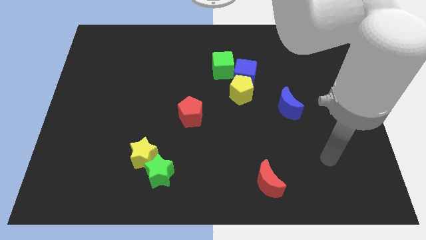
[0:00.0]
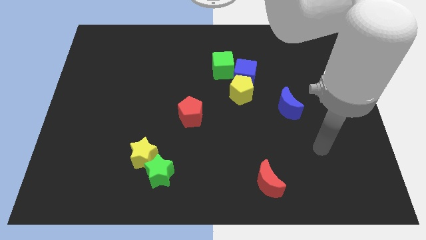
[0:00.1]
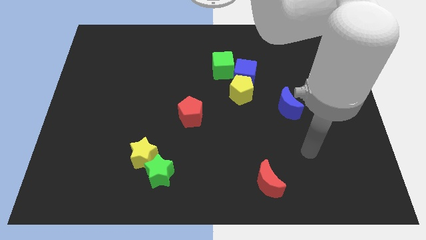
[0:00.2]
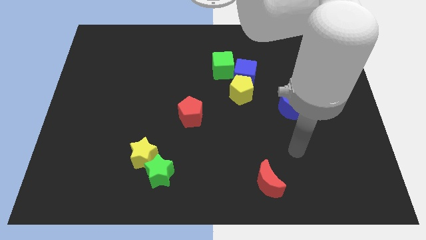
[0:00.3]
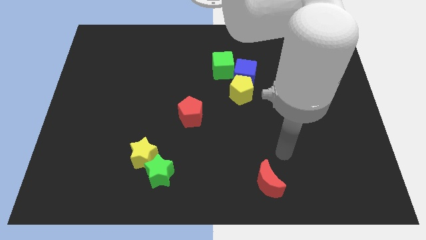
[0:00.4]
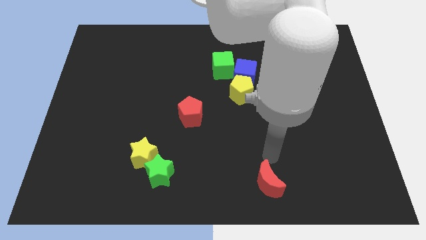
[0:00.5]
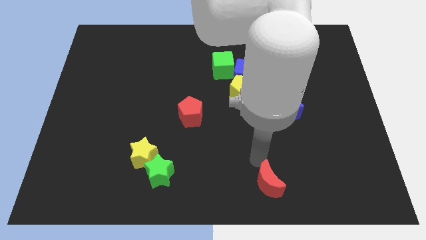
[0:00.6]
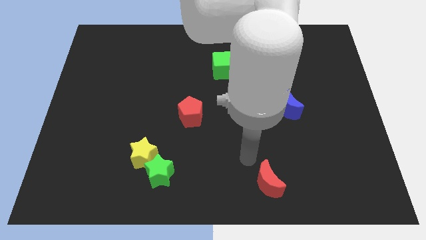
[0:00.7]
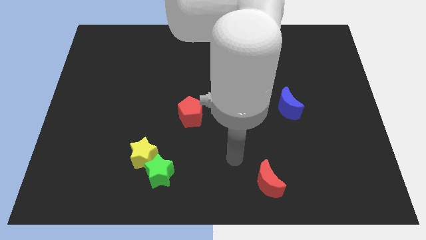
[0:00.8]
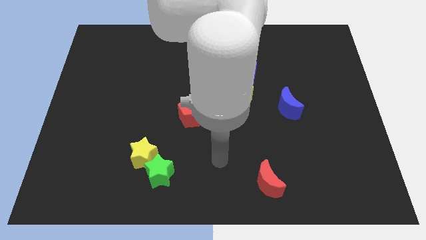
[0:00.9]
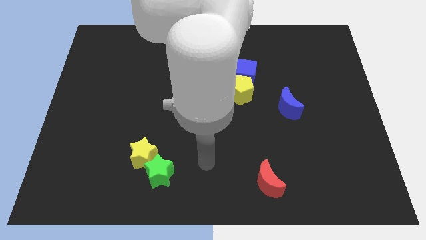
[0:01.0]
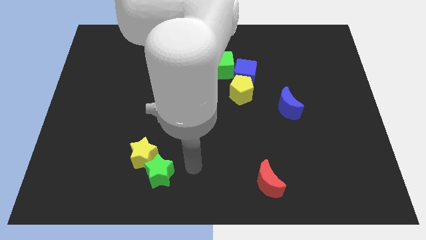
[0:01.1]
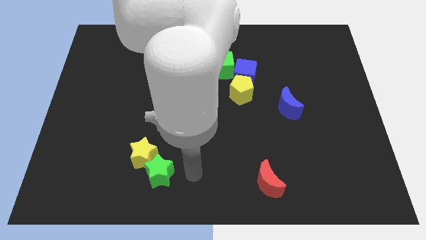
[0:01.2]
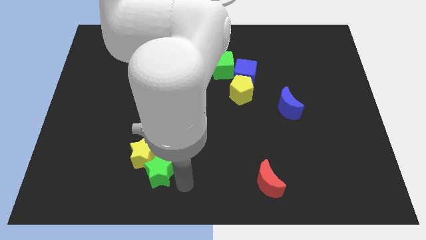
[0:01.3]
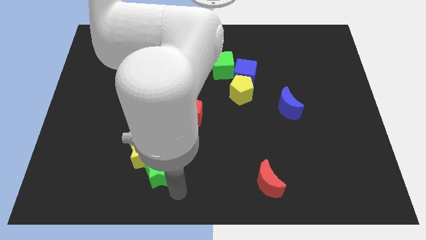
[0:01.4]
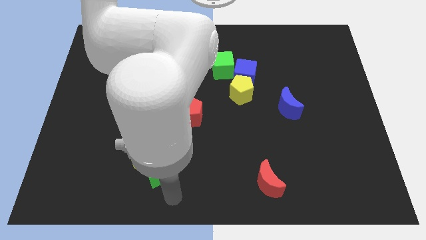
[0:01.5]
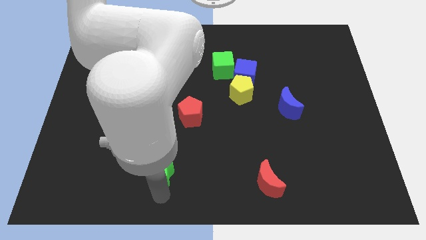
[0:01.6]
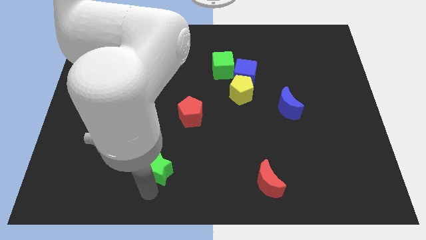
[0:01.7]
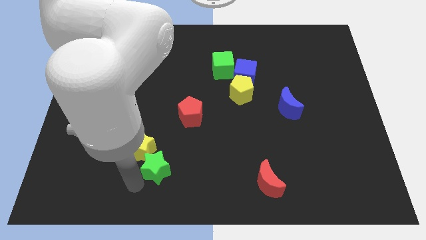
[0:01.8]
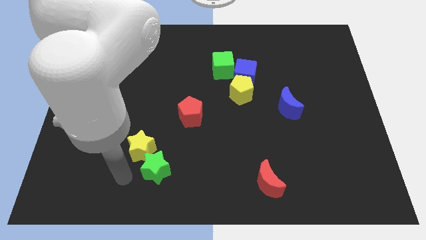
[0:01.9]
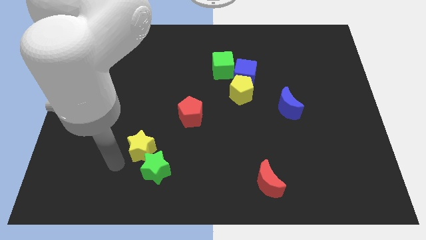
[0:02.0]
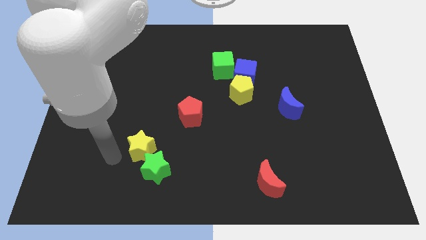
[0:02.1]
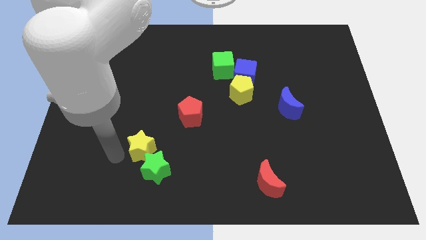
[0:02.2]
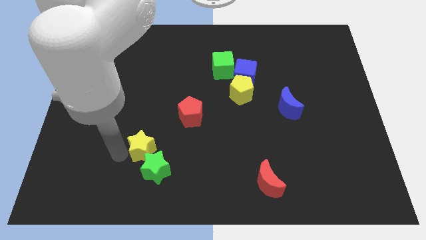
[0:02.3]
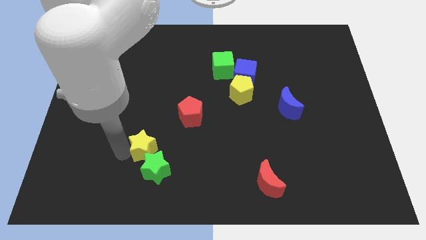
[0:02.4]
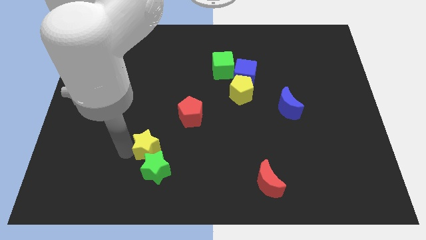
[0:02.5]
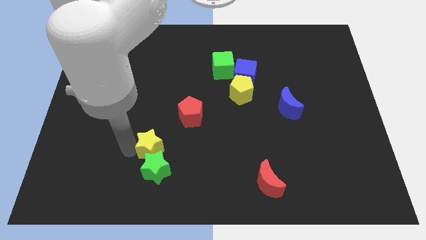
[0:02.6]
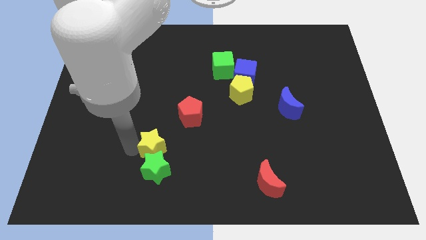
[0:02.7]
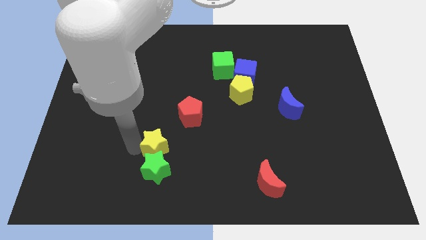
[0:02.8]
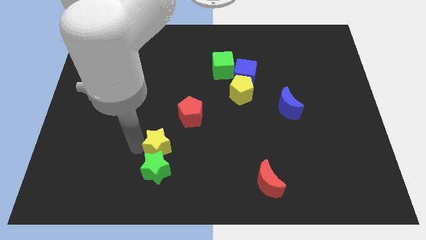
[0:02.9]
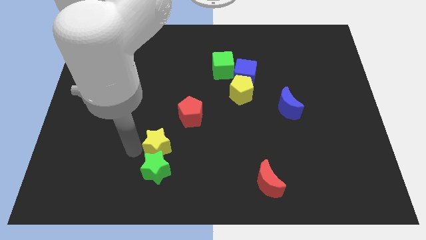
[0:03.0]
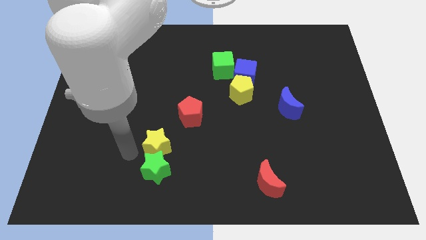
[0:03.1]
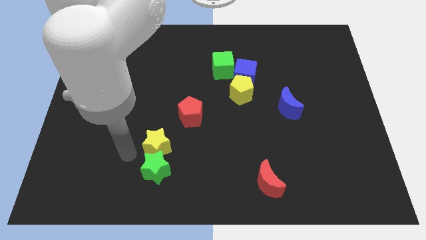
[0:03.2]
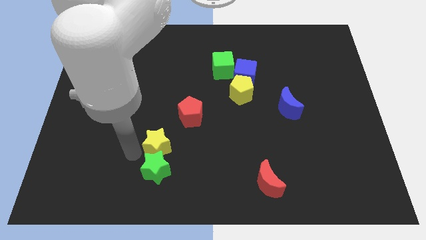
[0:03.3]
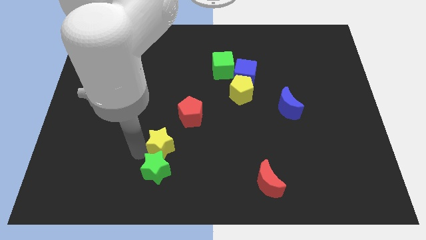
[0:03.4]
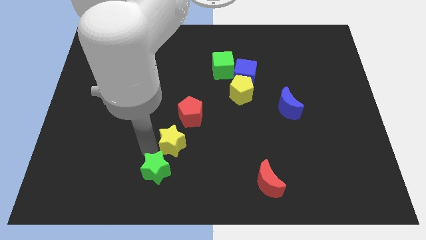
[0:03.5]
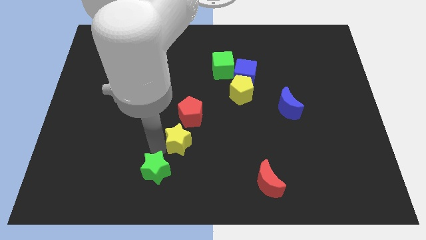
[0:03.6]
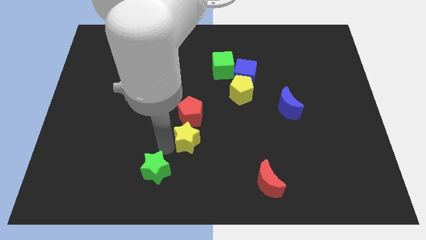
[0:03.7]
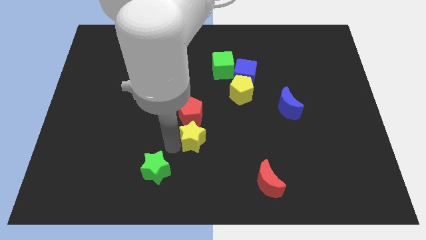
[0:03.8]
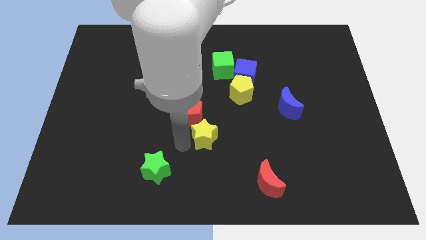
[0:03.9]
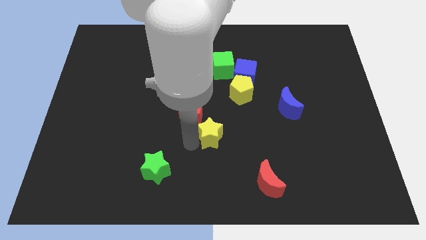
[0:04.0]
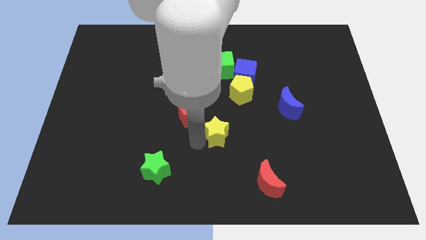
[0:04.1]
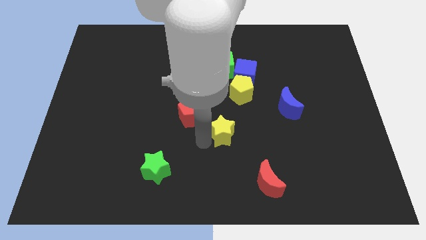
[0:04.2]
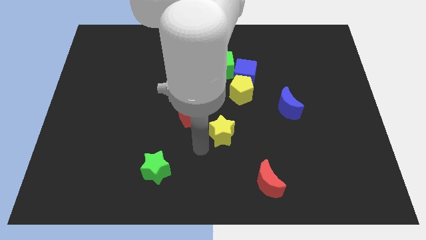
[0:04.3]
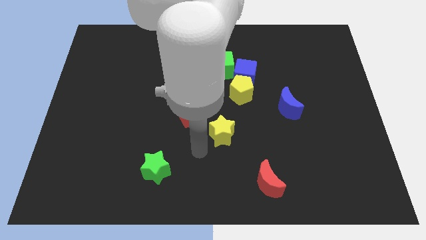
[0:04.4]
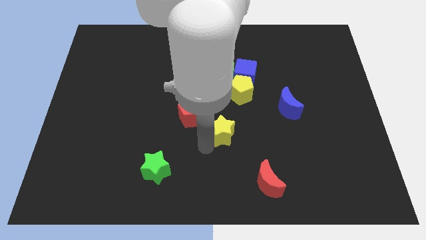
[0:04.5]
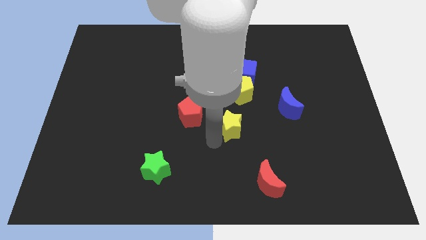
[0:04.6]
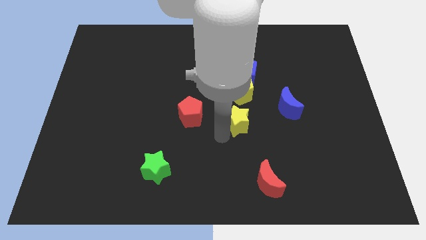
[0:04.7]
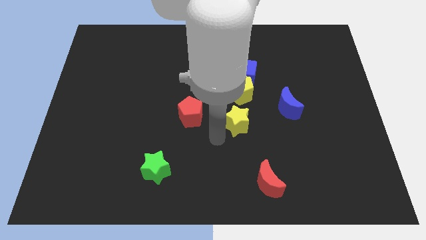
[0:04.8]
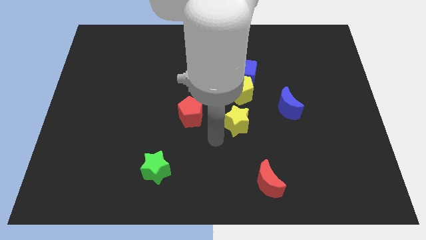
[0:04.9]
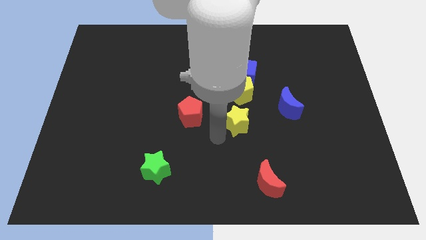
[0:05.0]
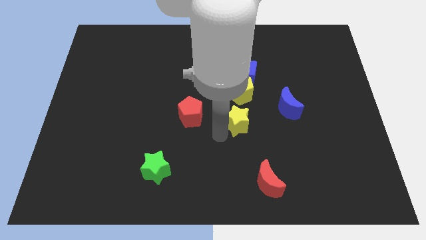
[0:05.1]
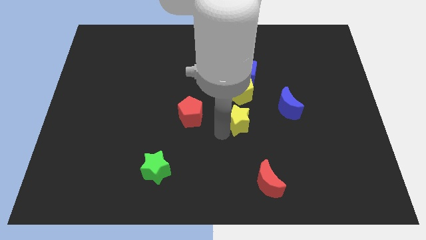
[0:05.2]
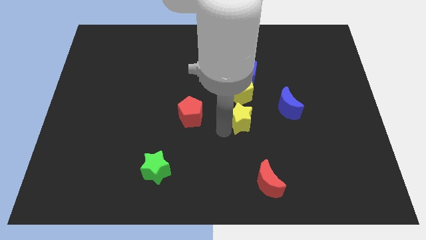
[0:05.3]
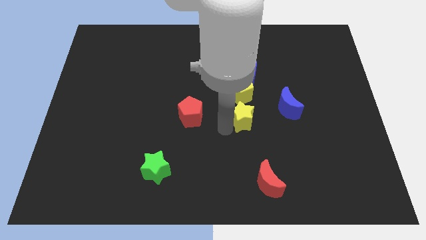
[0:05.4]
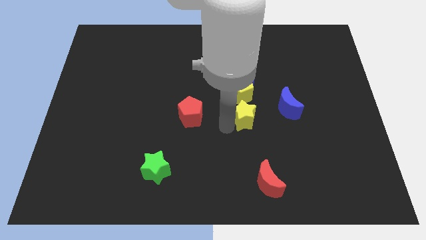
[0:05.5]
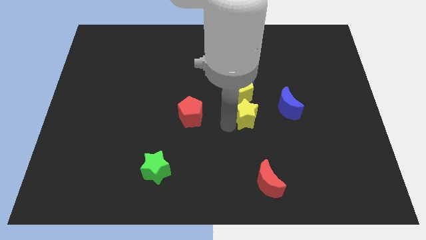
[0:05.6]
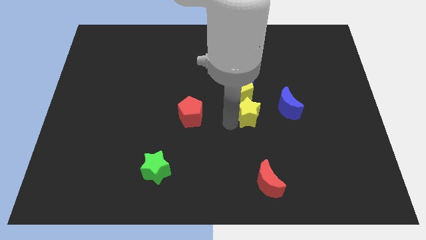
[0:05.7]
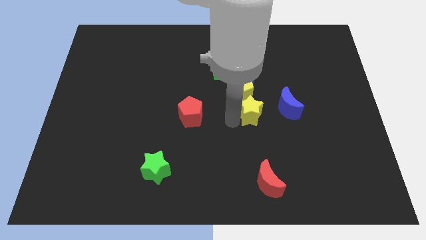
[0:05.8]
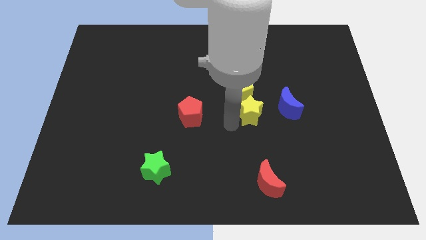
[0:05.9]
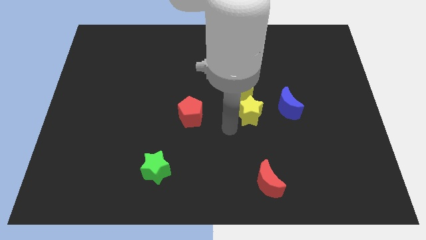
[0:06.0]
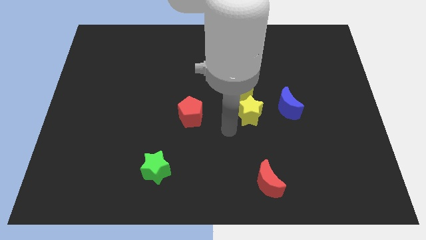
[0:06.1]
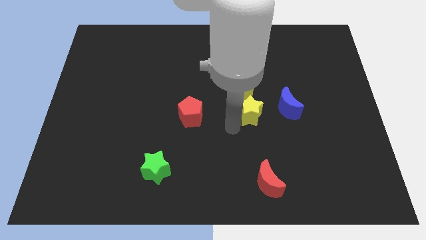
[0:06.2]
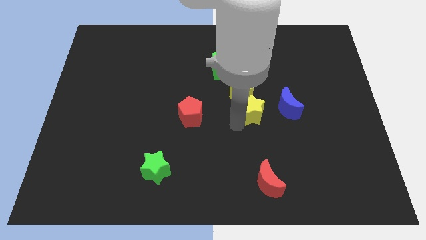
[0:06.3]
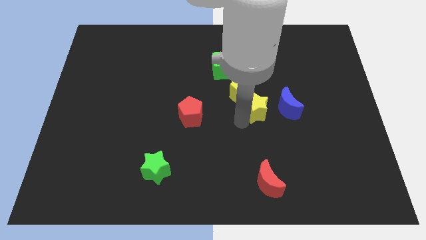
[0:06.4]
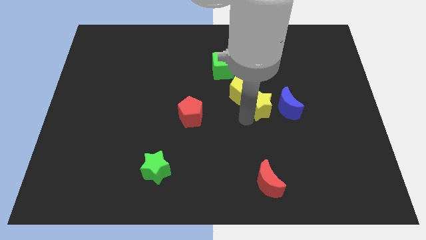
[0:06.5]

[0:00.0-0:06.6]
move the yellow star right of the yellow pentagon
